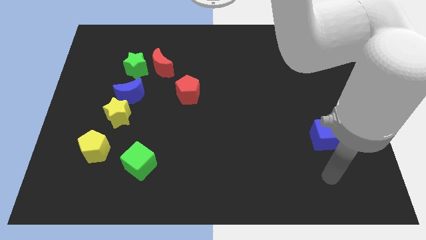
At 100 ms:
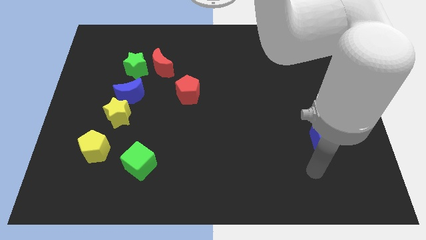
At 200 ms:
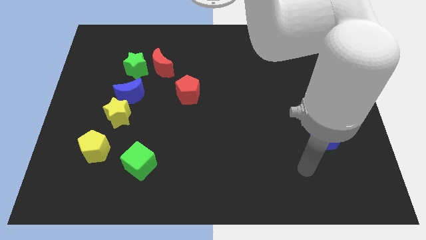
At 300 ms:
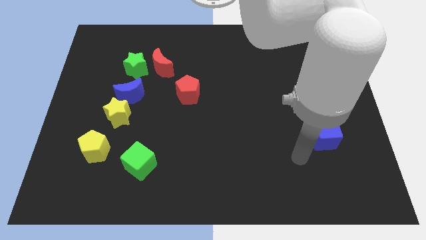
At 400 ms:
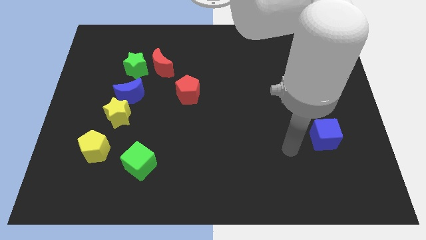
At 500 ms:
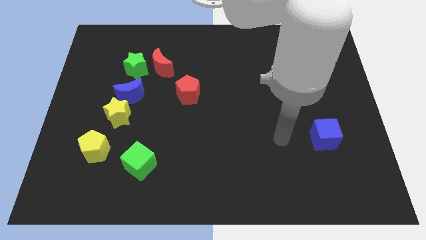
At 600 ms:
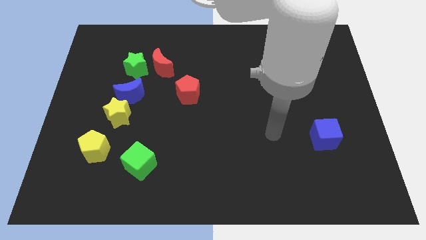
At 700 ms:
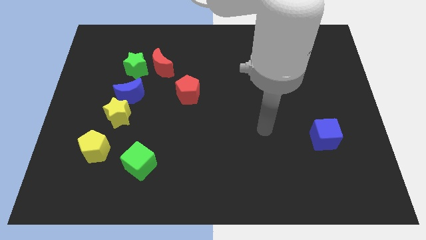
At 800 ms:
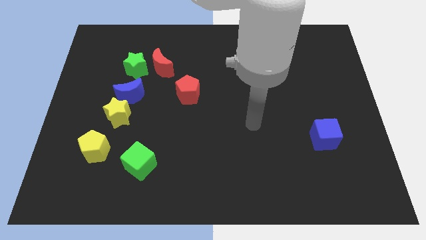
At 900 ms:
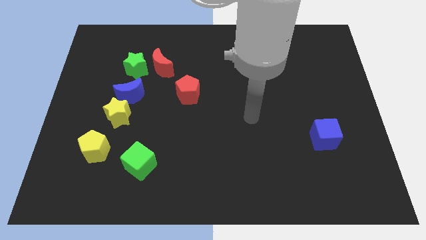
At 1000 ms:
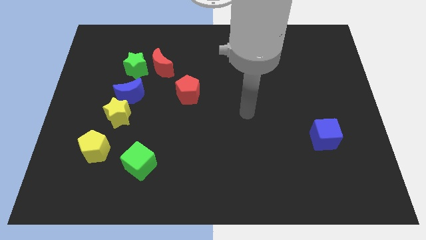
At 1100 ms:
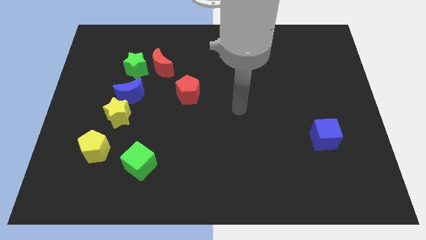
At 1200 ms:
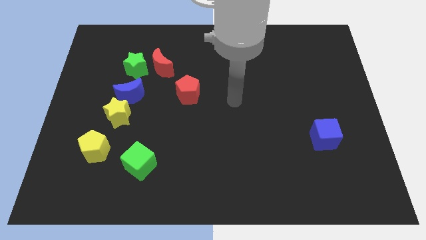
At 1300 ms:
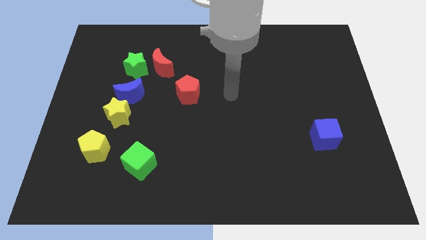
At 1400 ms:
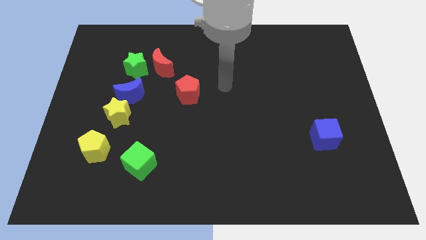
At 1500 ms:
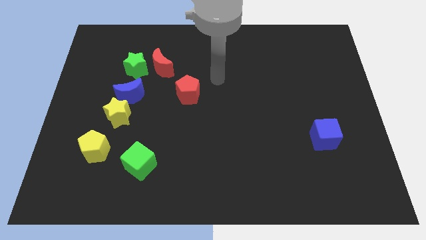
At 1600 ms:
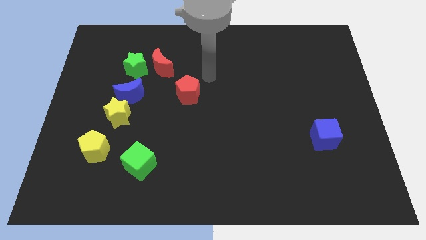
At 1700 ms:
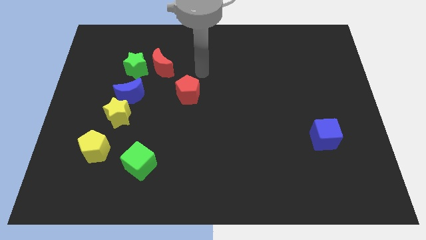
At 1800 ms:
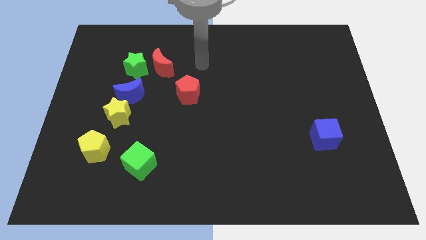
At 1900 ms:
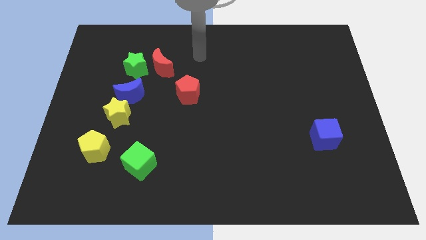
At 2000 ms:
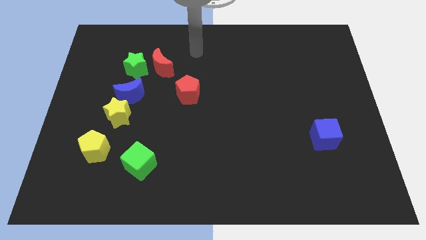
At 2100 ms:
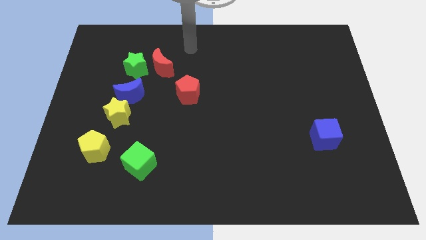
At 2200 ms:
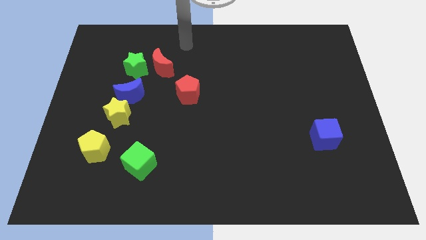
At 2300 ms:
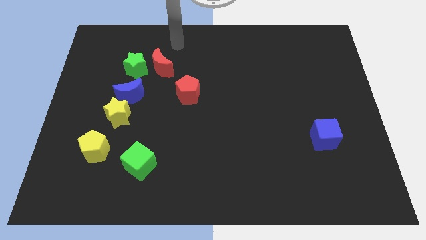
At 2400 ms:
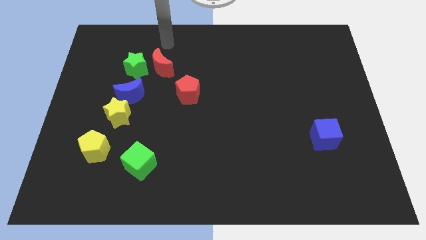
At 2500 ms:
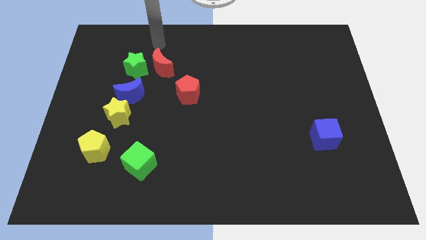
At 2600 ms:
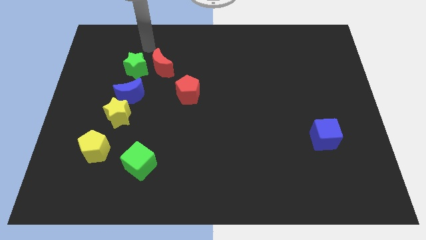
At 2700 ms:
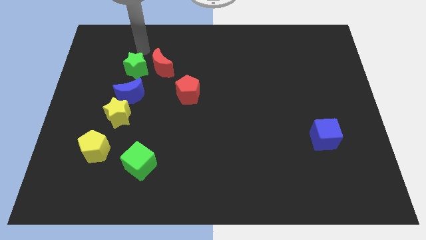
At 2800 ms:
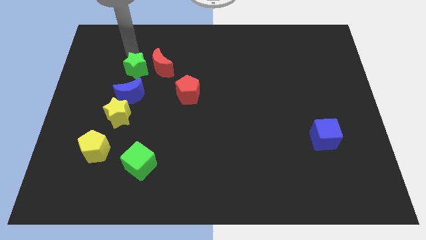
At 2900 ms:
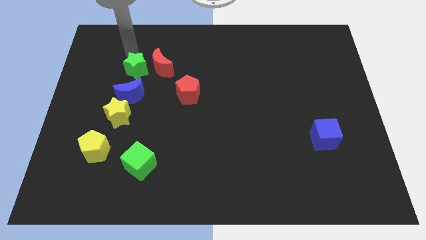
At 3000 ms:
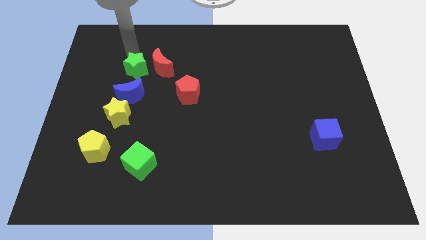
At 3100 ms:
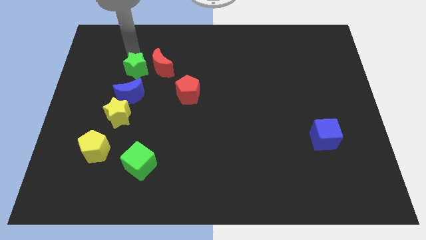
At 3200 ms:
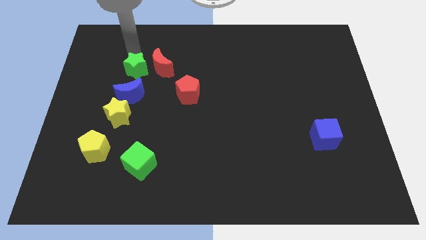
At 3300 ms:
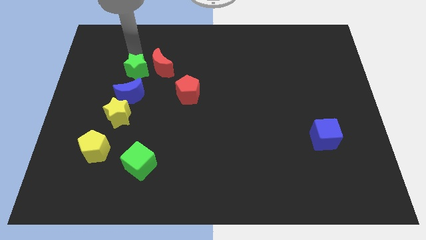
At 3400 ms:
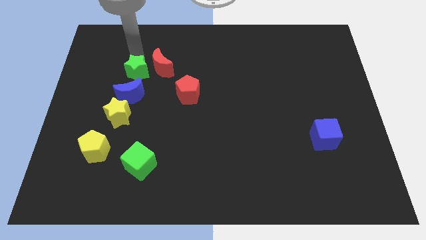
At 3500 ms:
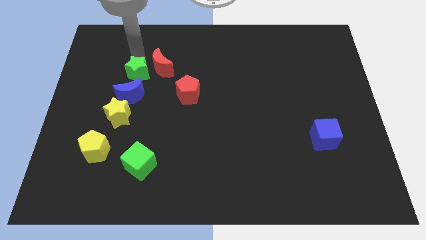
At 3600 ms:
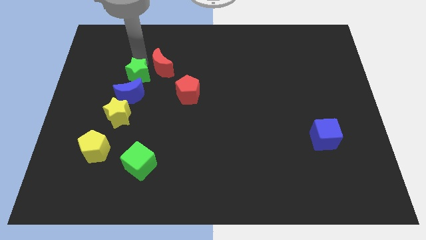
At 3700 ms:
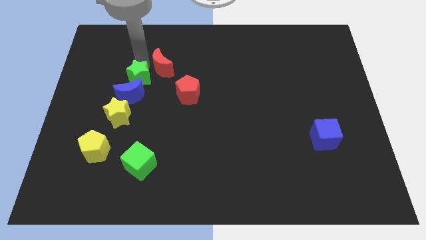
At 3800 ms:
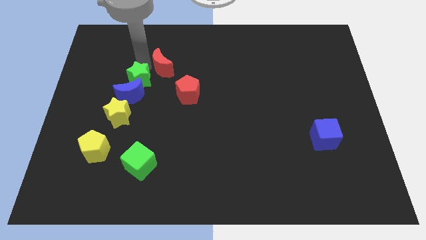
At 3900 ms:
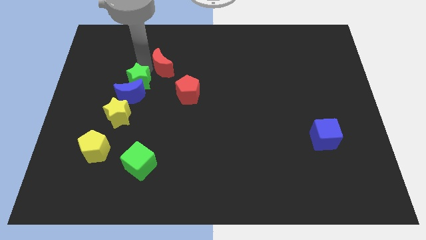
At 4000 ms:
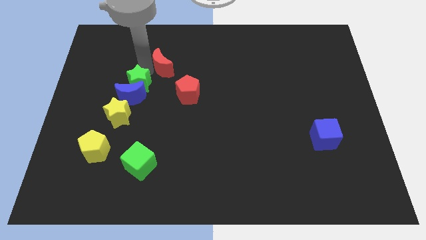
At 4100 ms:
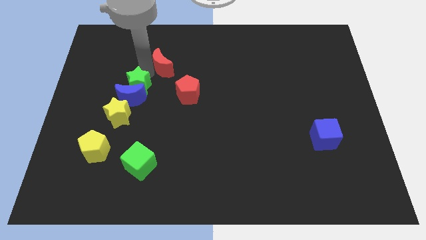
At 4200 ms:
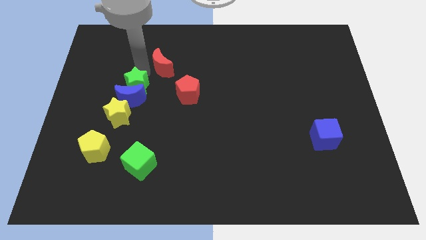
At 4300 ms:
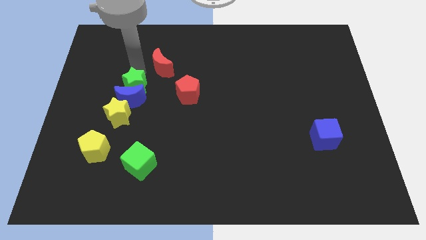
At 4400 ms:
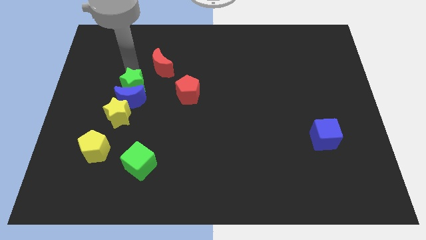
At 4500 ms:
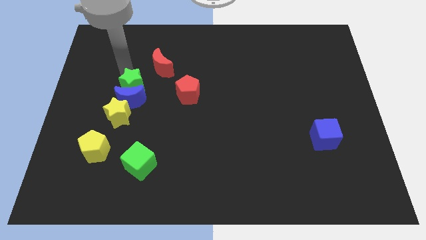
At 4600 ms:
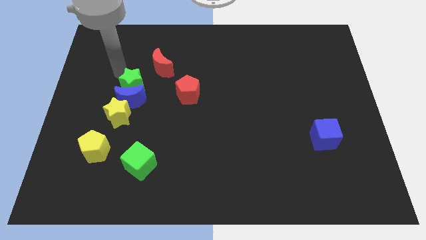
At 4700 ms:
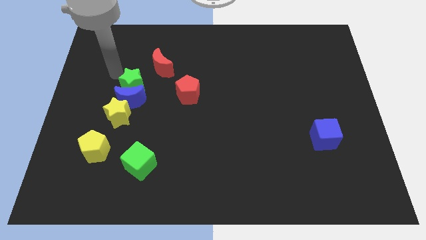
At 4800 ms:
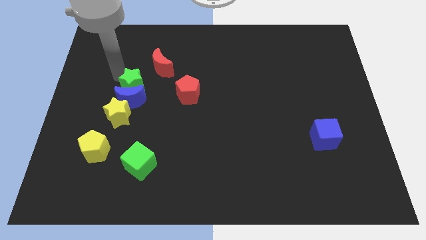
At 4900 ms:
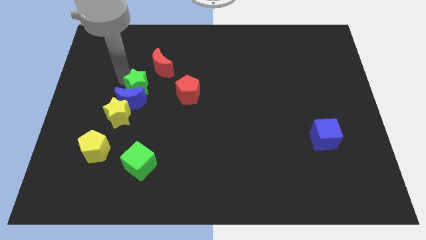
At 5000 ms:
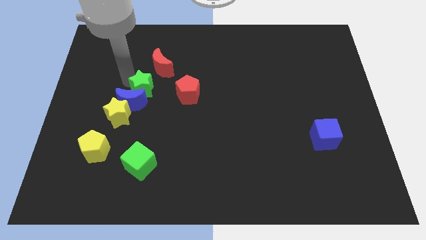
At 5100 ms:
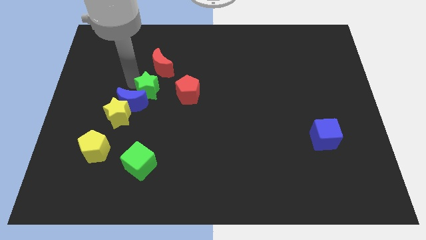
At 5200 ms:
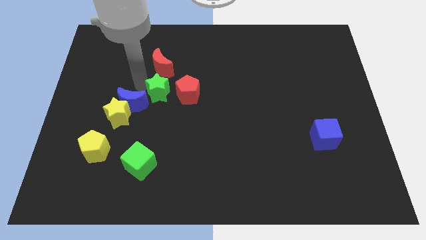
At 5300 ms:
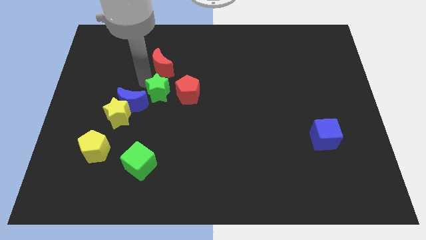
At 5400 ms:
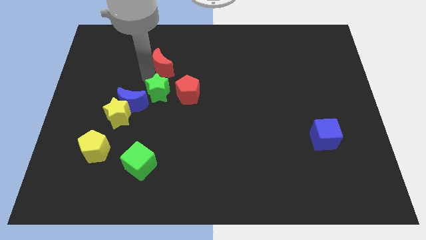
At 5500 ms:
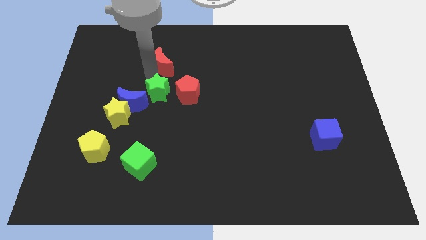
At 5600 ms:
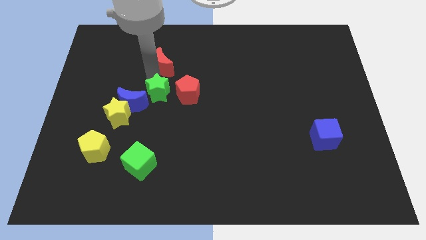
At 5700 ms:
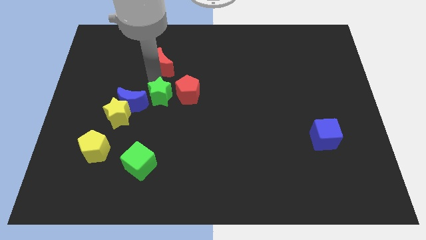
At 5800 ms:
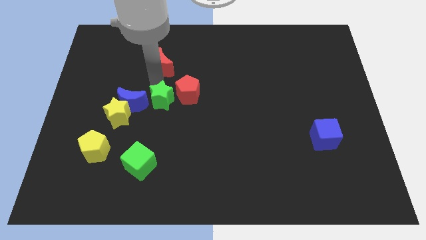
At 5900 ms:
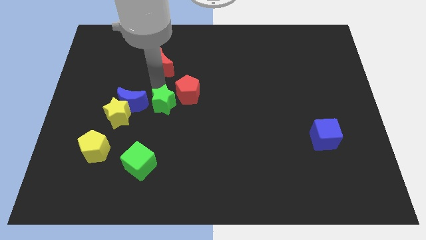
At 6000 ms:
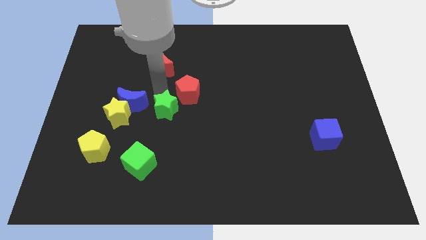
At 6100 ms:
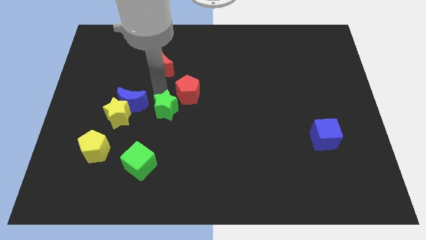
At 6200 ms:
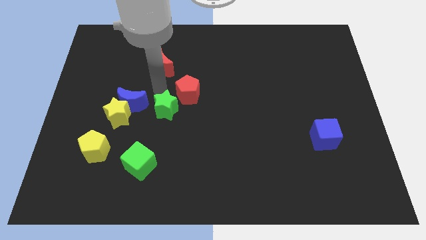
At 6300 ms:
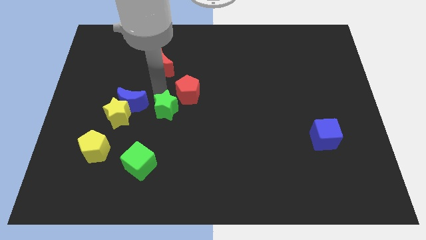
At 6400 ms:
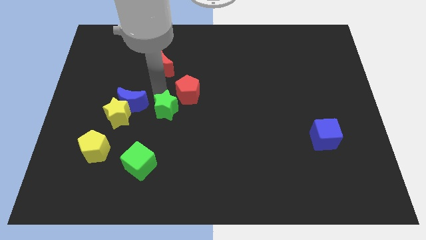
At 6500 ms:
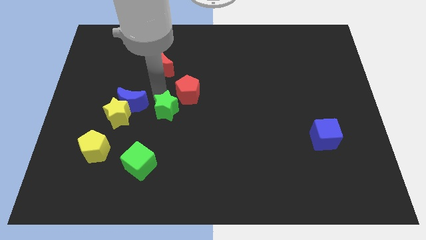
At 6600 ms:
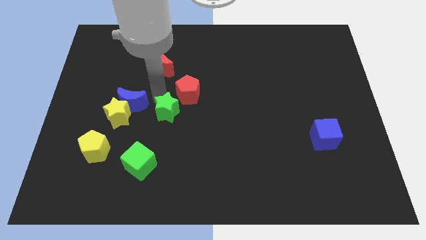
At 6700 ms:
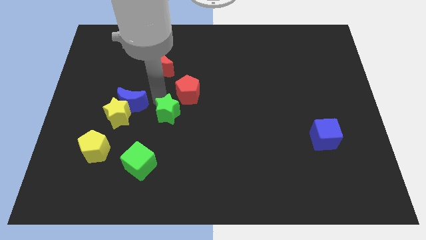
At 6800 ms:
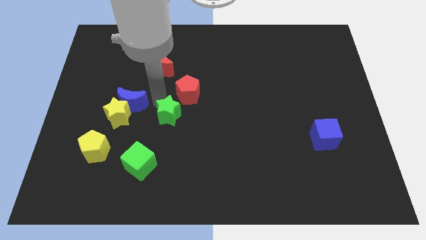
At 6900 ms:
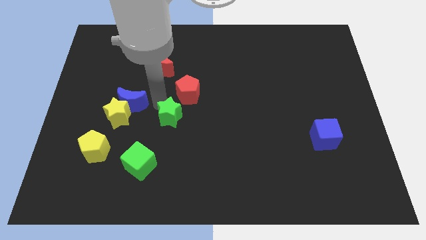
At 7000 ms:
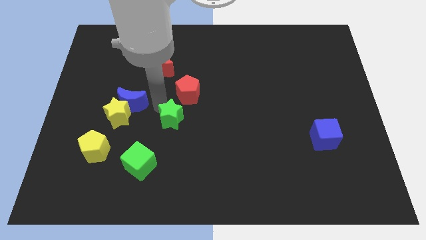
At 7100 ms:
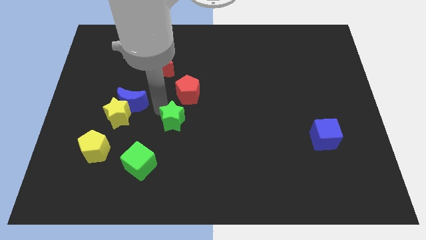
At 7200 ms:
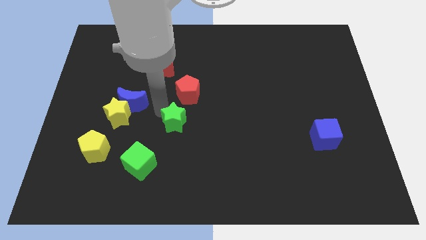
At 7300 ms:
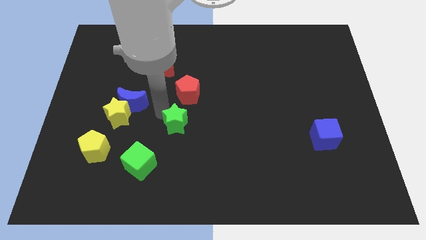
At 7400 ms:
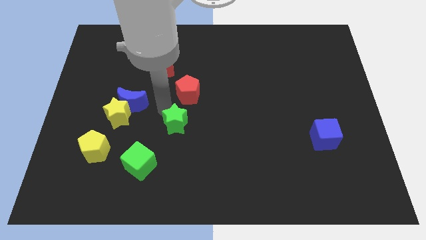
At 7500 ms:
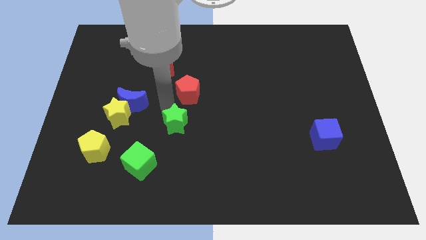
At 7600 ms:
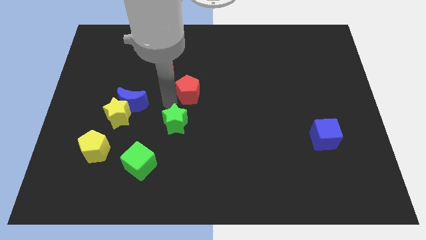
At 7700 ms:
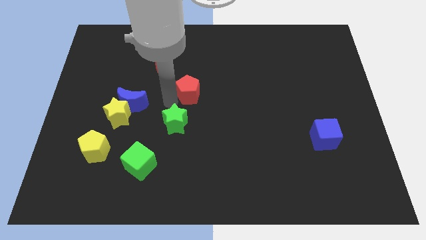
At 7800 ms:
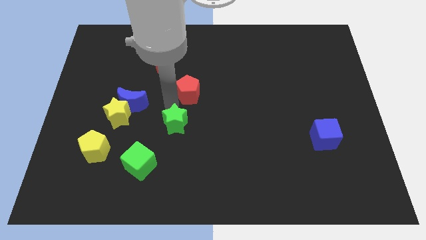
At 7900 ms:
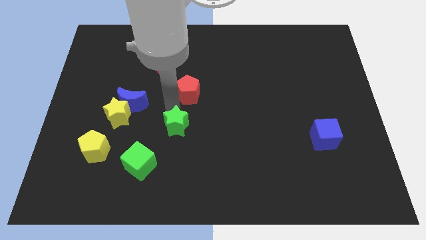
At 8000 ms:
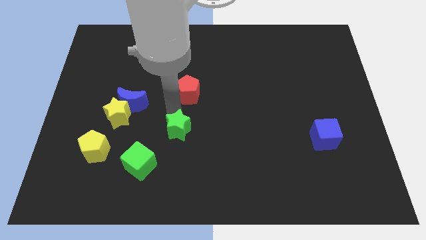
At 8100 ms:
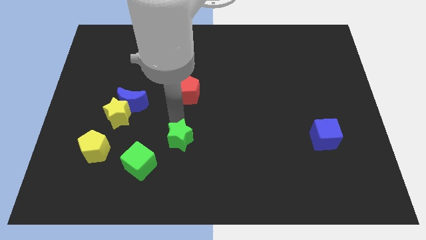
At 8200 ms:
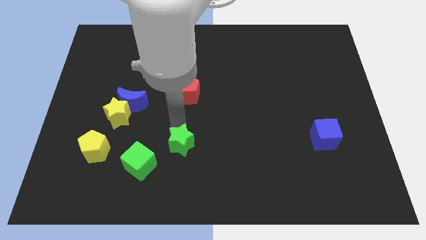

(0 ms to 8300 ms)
slide the green star just right of the green cube
